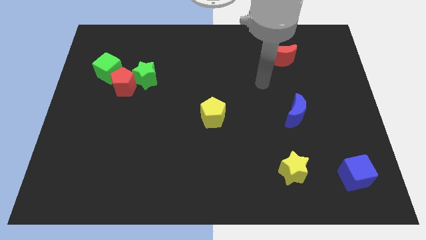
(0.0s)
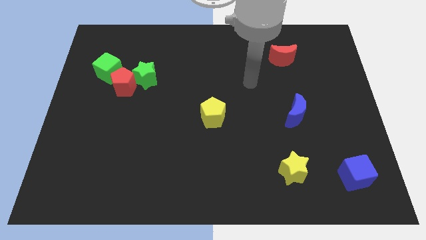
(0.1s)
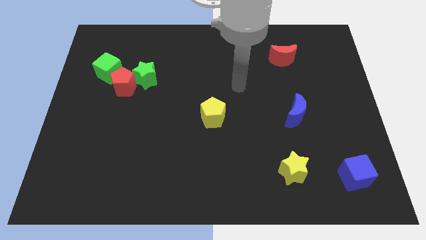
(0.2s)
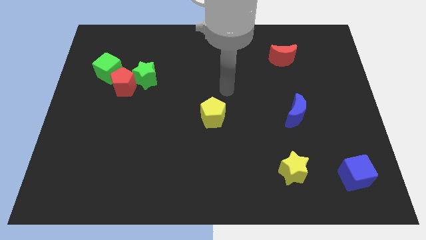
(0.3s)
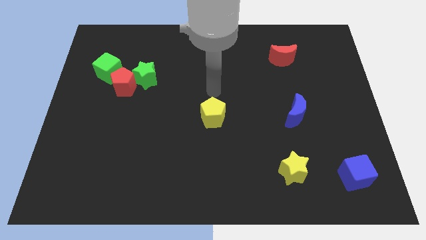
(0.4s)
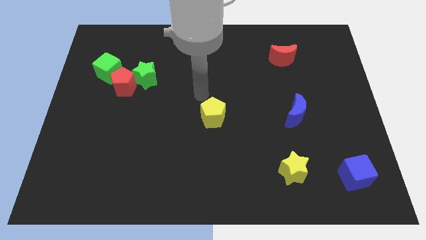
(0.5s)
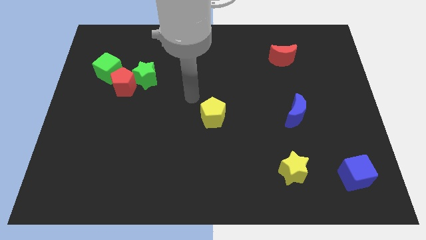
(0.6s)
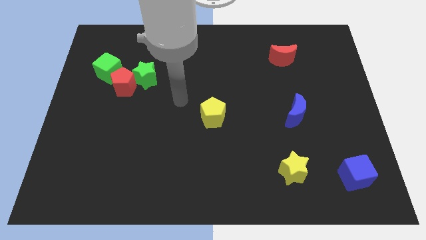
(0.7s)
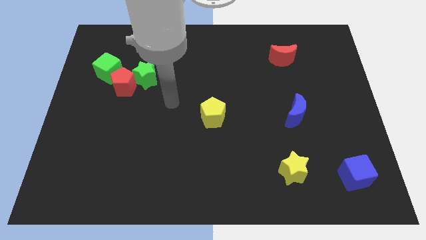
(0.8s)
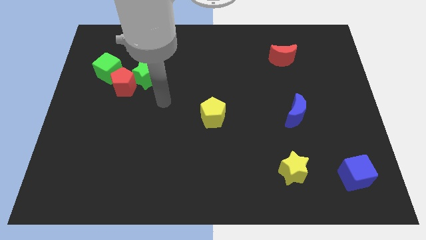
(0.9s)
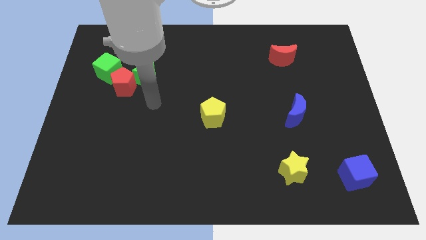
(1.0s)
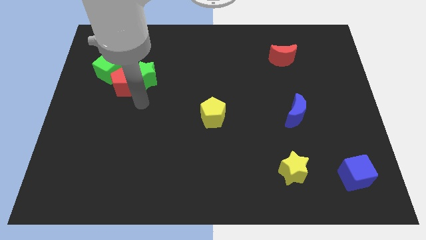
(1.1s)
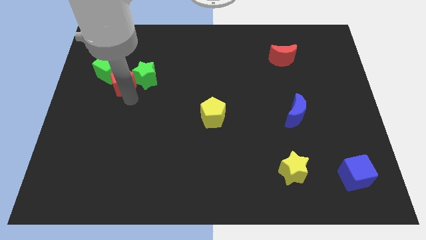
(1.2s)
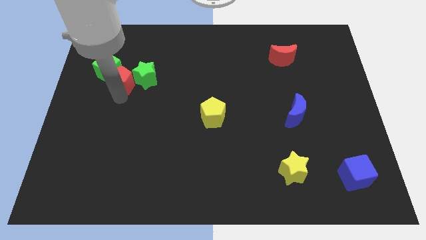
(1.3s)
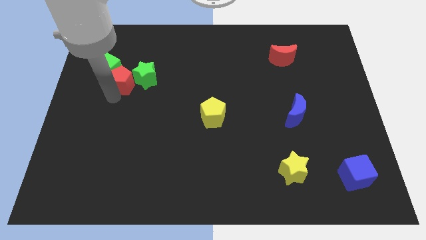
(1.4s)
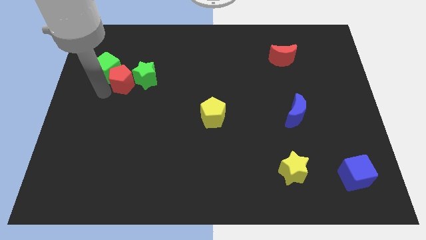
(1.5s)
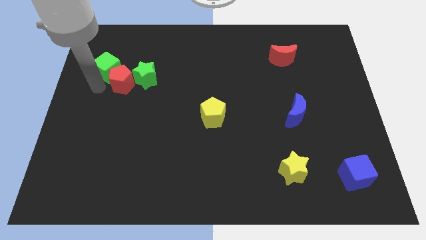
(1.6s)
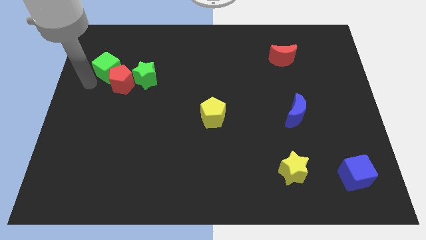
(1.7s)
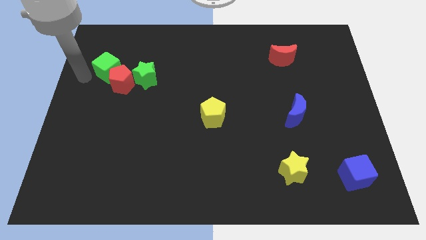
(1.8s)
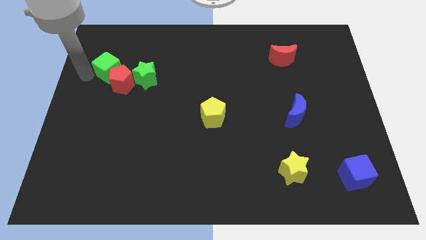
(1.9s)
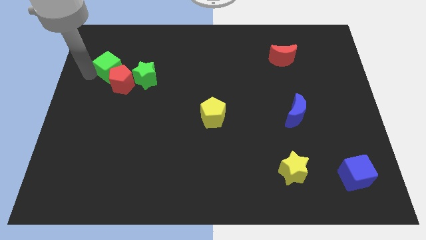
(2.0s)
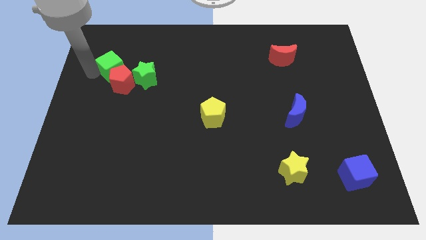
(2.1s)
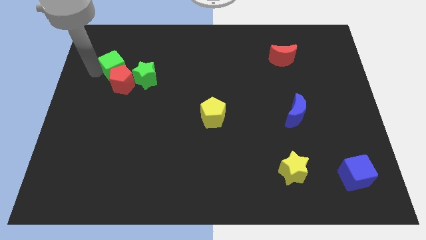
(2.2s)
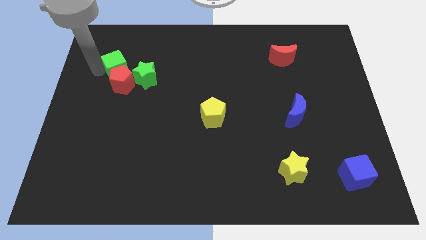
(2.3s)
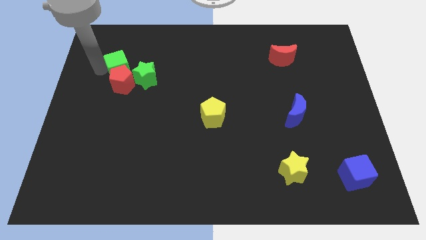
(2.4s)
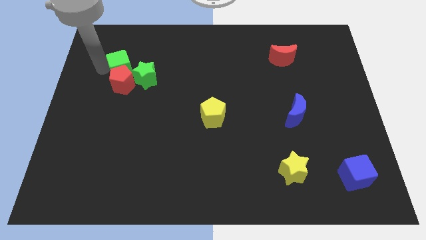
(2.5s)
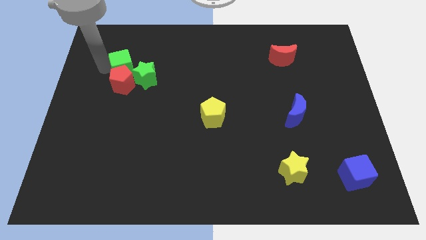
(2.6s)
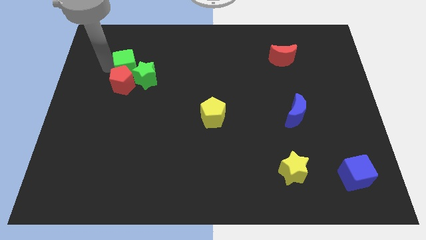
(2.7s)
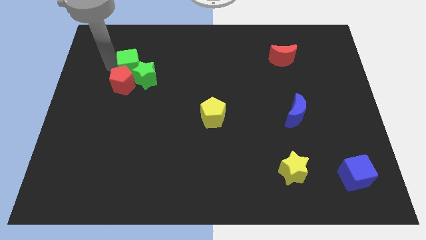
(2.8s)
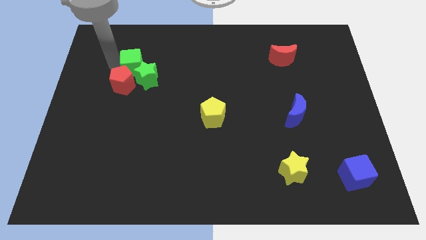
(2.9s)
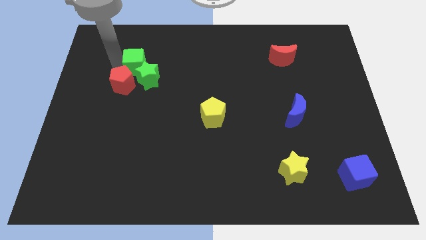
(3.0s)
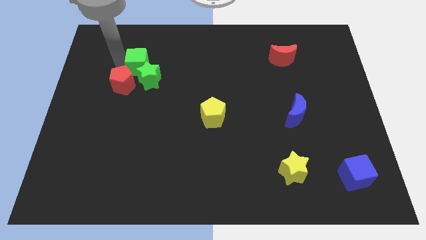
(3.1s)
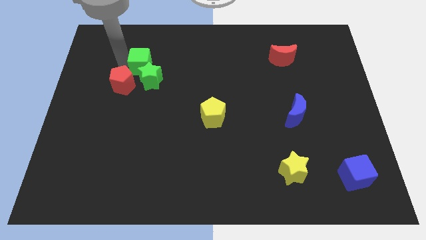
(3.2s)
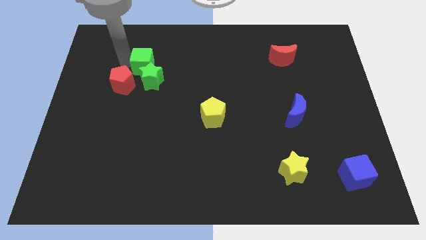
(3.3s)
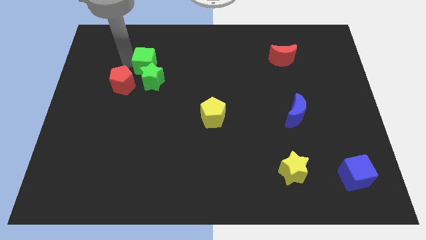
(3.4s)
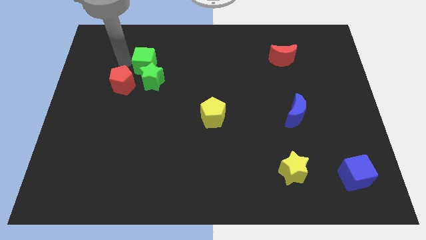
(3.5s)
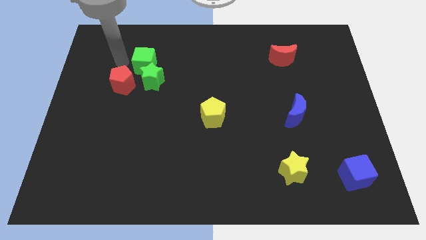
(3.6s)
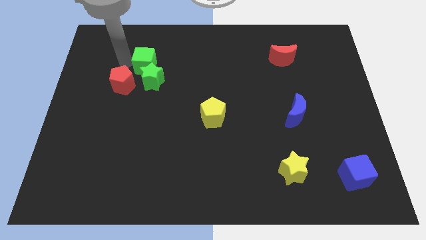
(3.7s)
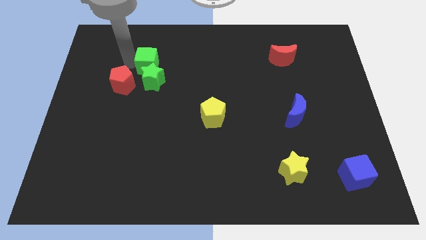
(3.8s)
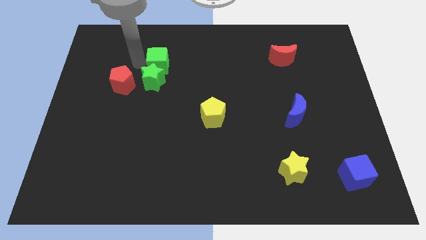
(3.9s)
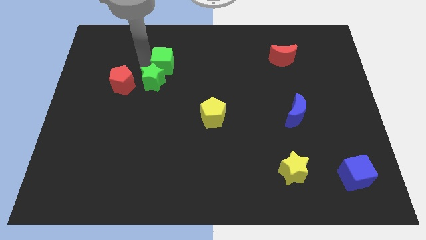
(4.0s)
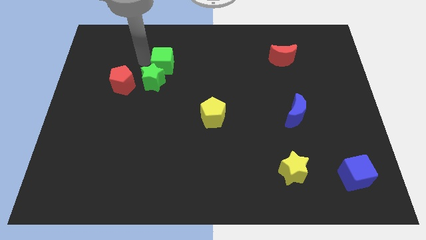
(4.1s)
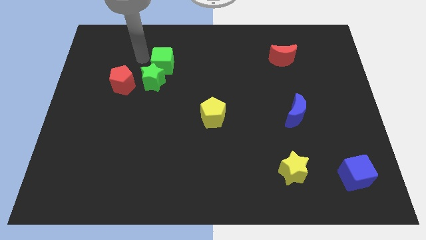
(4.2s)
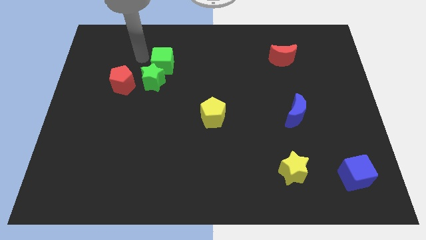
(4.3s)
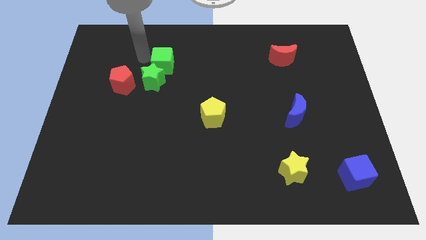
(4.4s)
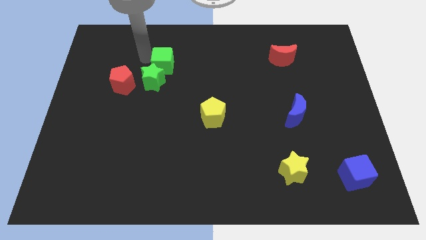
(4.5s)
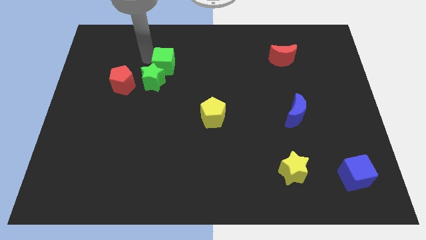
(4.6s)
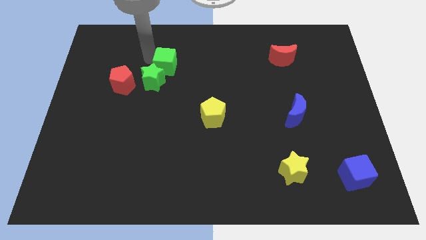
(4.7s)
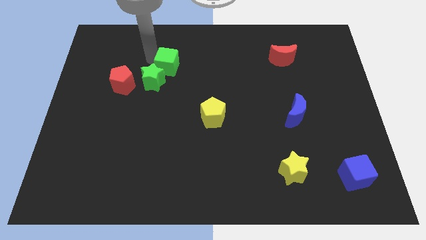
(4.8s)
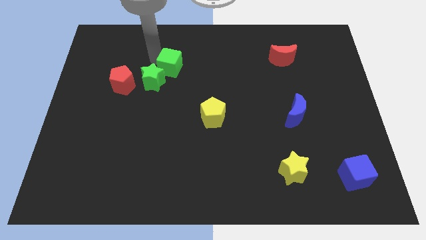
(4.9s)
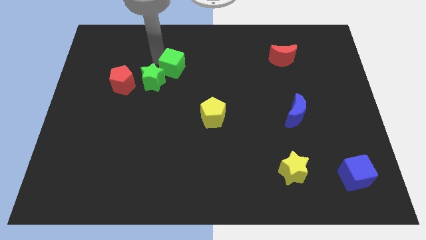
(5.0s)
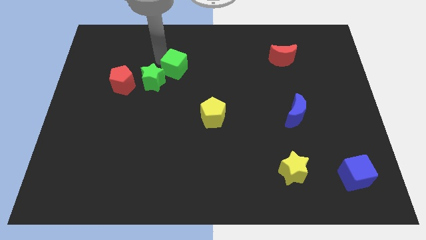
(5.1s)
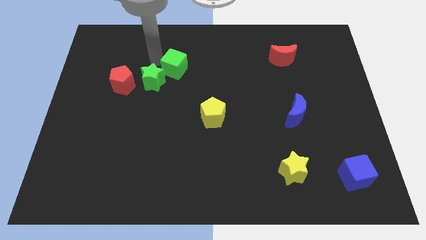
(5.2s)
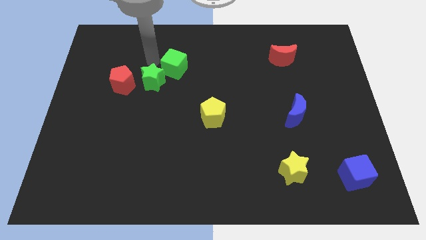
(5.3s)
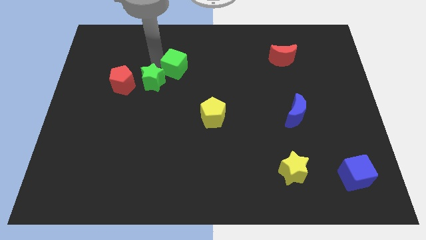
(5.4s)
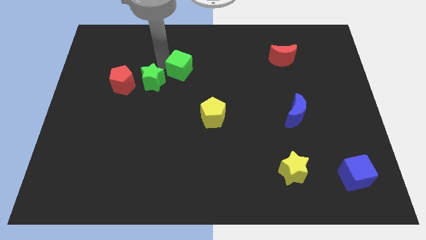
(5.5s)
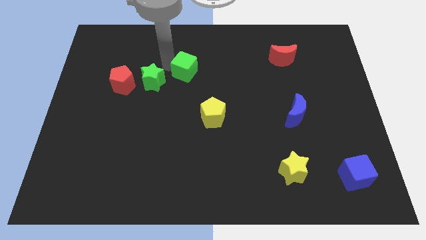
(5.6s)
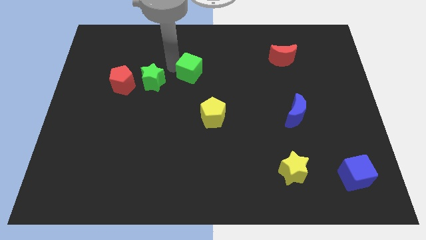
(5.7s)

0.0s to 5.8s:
slide the green cube right

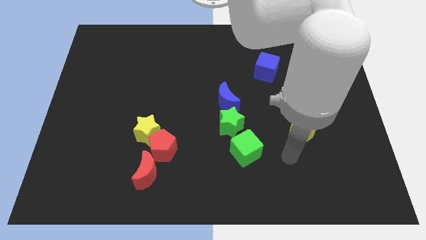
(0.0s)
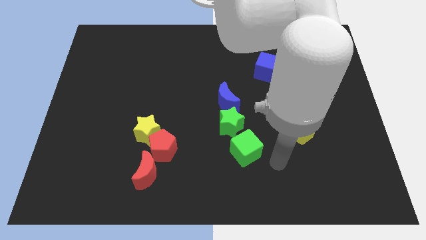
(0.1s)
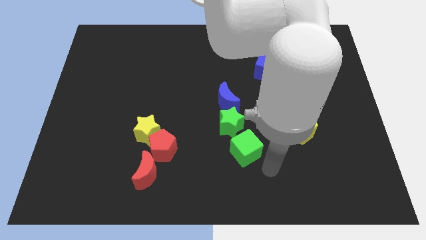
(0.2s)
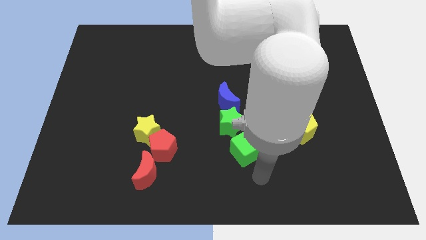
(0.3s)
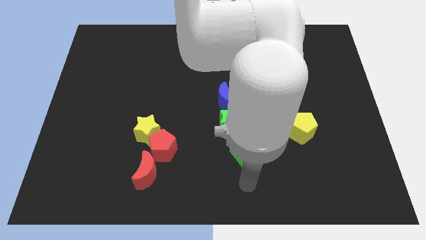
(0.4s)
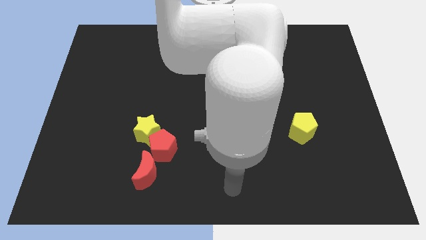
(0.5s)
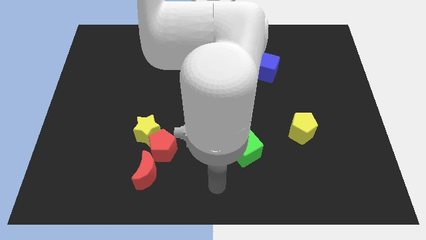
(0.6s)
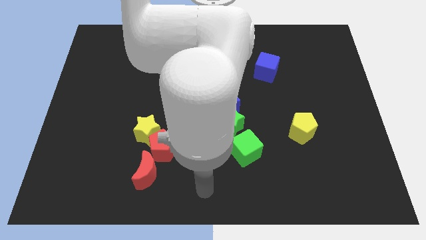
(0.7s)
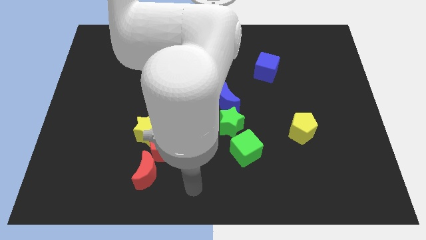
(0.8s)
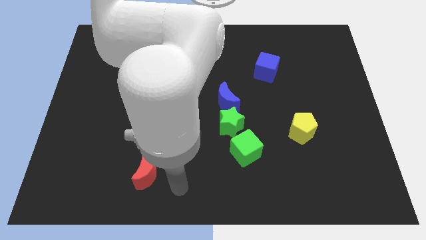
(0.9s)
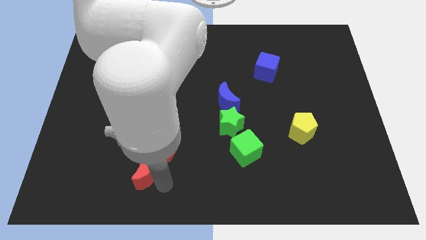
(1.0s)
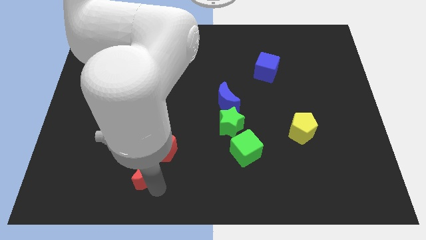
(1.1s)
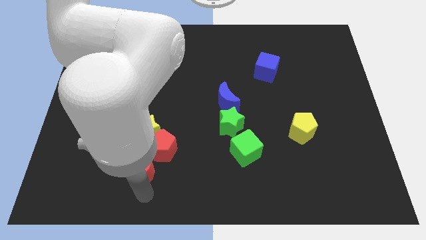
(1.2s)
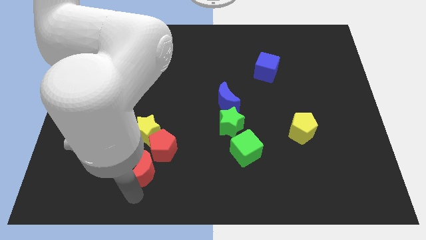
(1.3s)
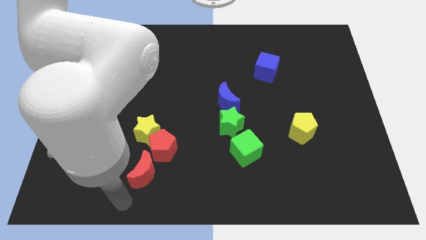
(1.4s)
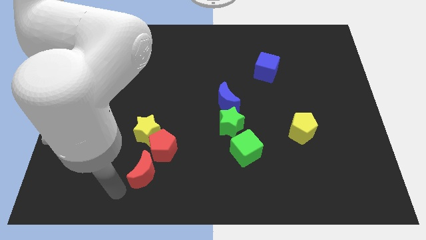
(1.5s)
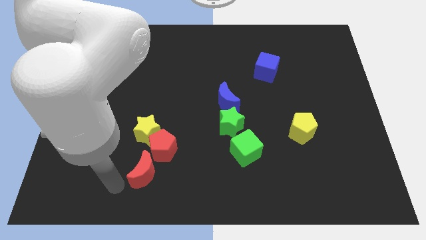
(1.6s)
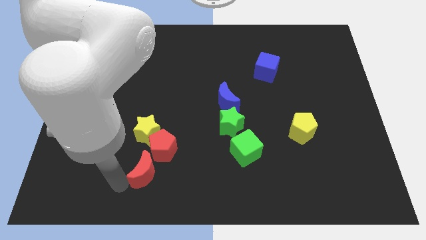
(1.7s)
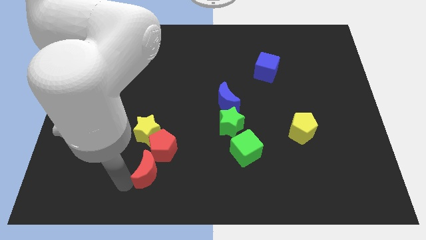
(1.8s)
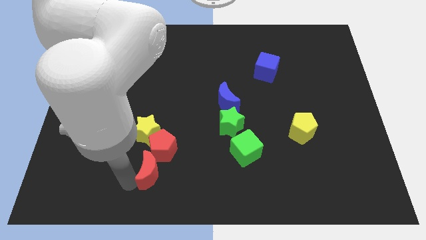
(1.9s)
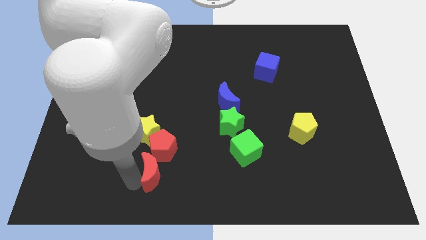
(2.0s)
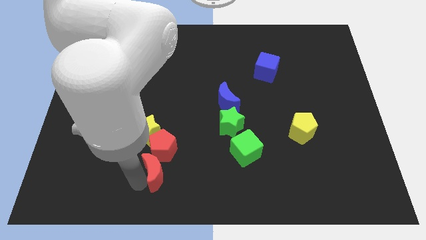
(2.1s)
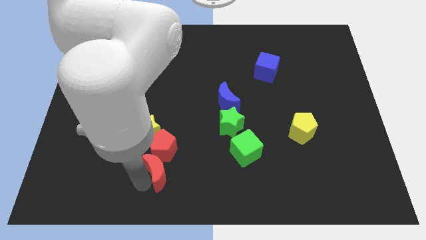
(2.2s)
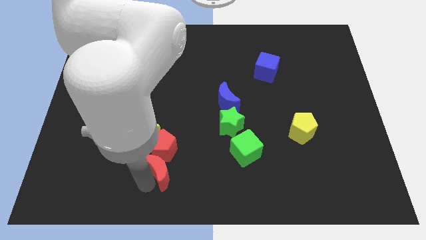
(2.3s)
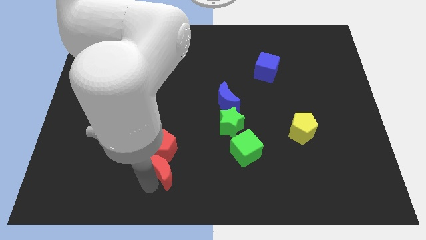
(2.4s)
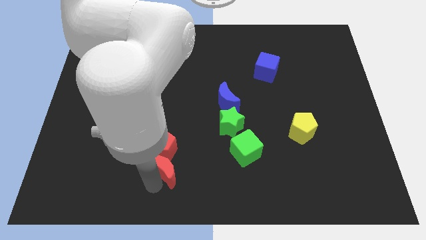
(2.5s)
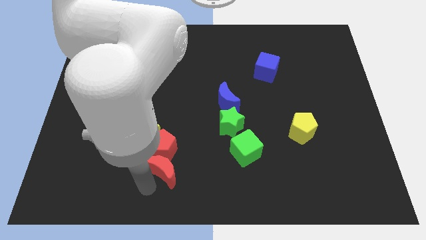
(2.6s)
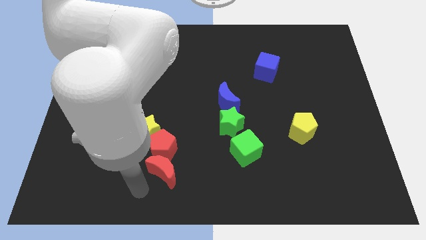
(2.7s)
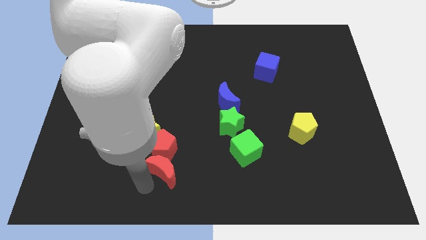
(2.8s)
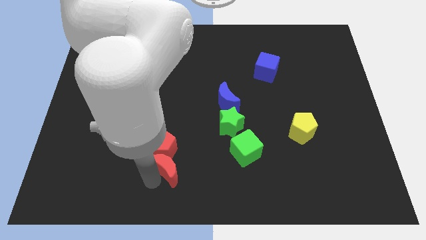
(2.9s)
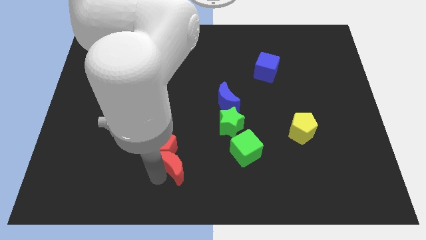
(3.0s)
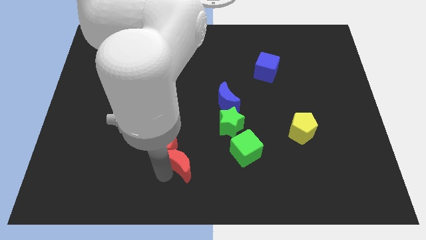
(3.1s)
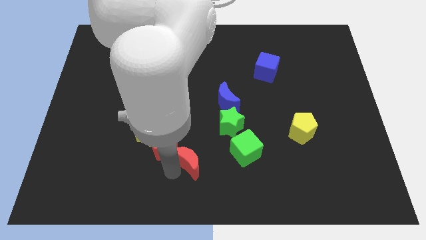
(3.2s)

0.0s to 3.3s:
slightly slide the red moon up and right
